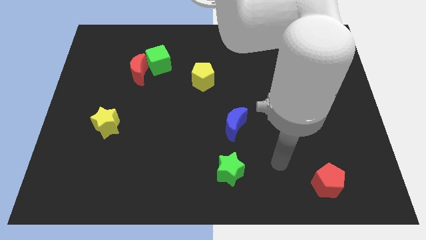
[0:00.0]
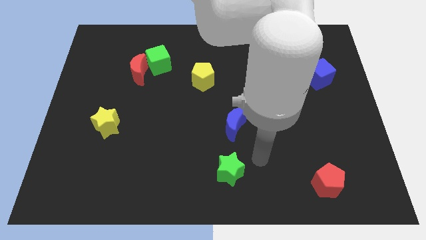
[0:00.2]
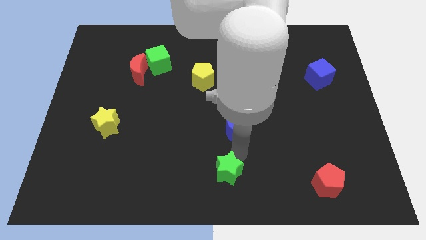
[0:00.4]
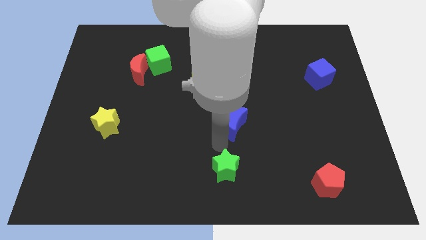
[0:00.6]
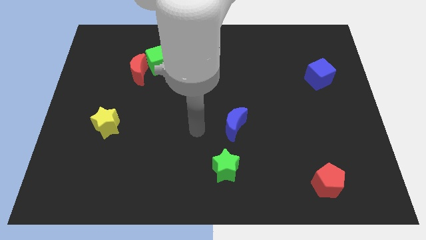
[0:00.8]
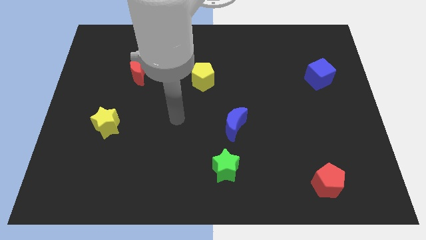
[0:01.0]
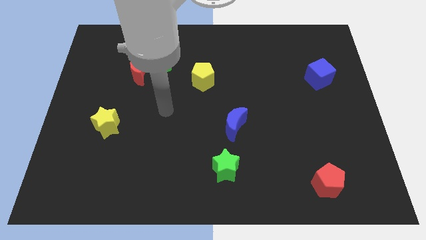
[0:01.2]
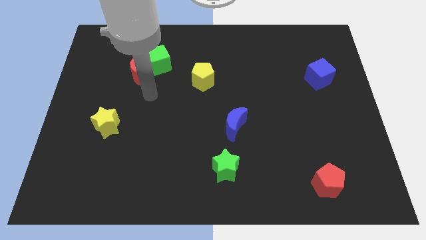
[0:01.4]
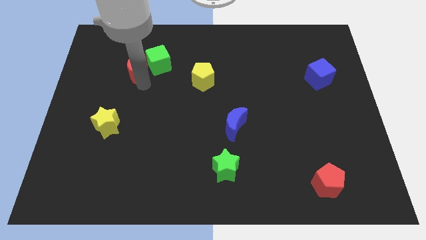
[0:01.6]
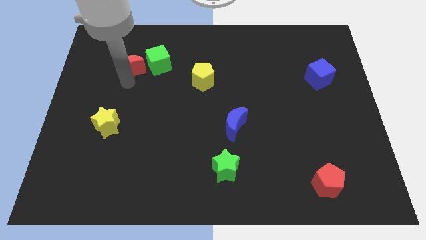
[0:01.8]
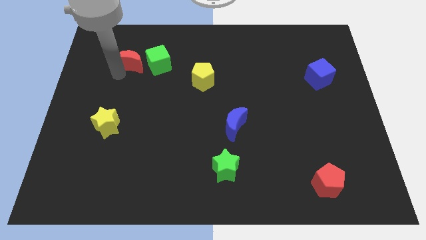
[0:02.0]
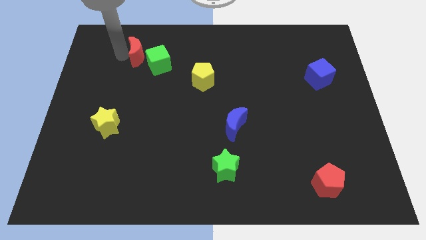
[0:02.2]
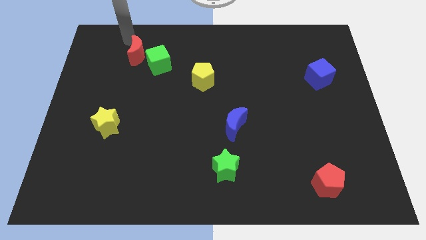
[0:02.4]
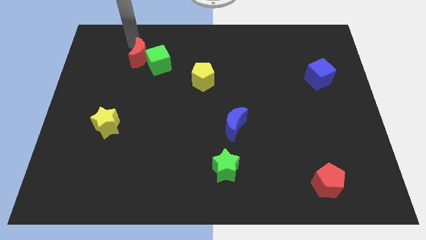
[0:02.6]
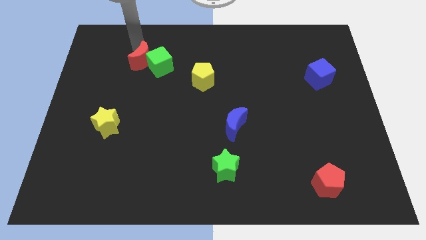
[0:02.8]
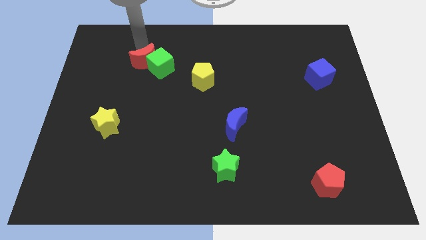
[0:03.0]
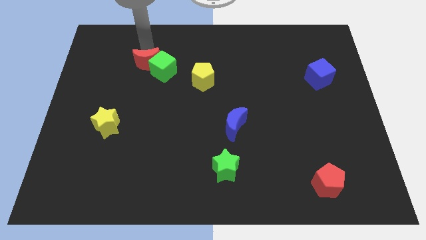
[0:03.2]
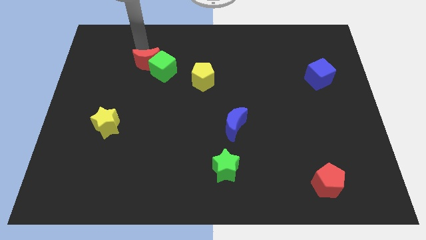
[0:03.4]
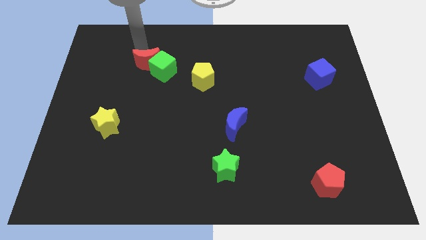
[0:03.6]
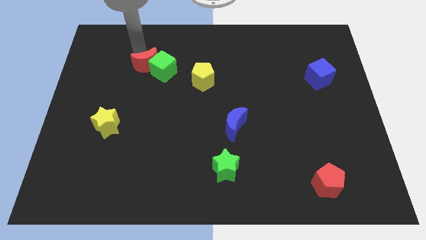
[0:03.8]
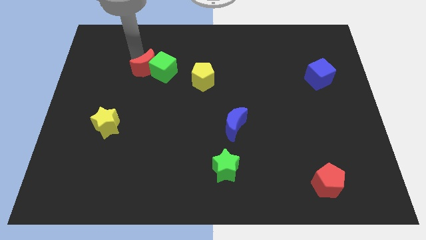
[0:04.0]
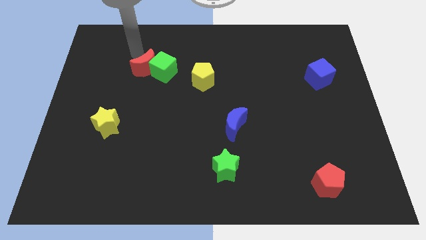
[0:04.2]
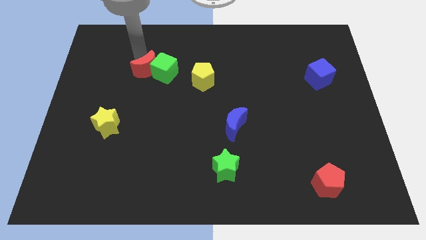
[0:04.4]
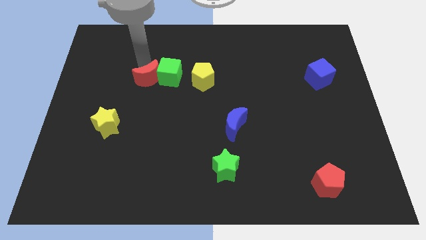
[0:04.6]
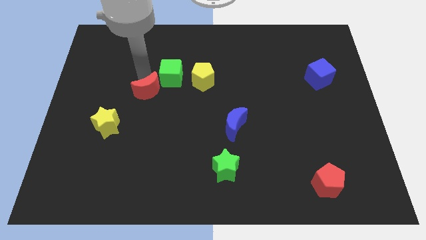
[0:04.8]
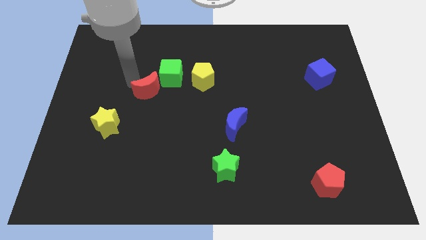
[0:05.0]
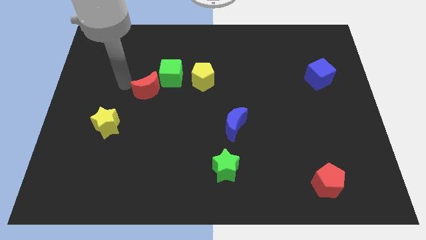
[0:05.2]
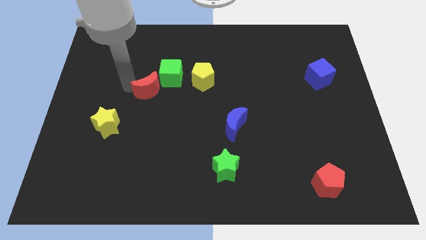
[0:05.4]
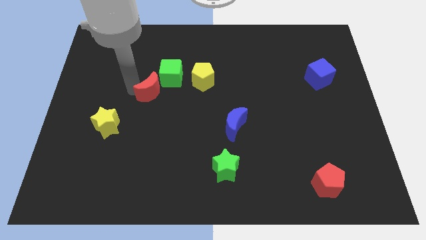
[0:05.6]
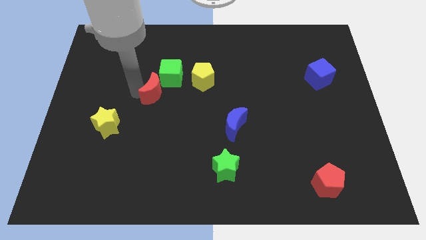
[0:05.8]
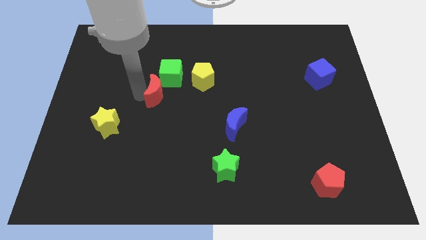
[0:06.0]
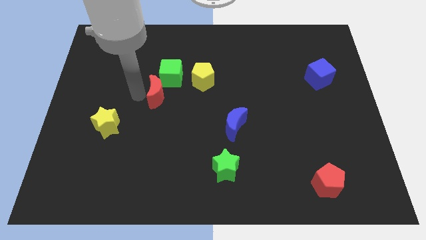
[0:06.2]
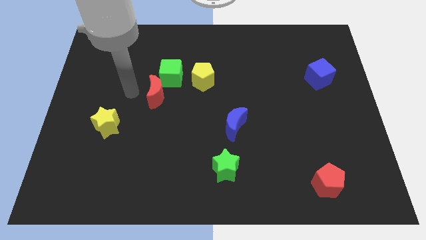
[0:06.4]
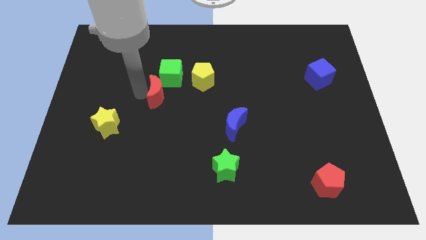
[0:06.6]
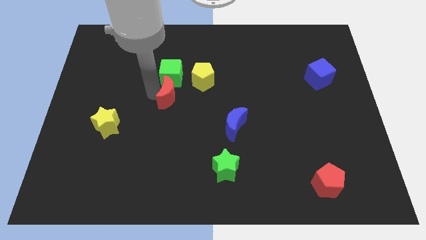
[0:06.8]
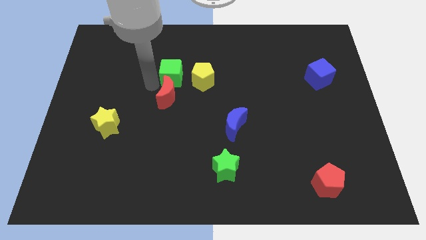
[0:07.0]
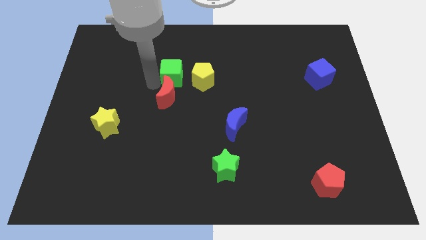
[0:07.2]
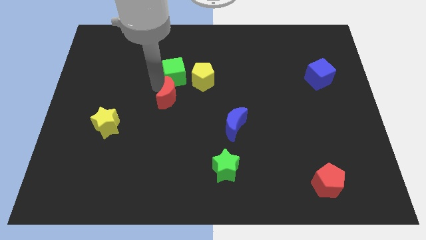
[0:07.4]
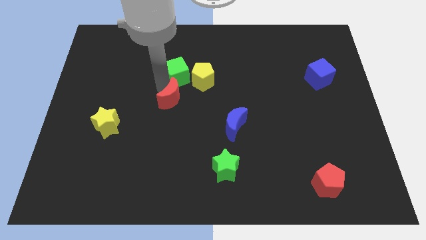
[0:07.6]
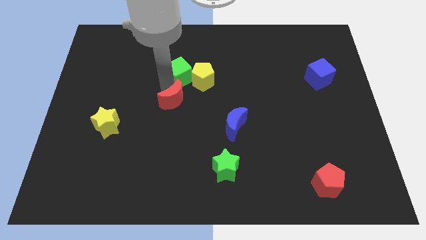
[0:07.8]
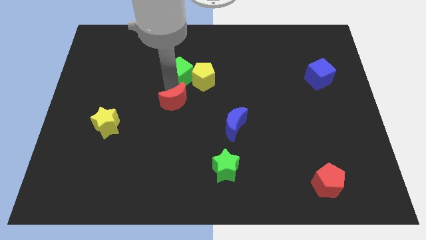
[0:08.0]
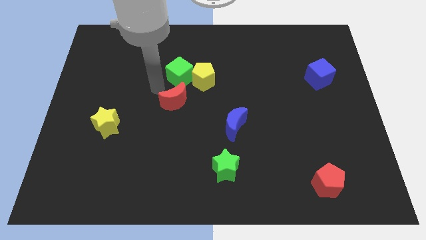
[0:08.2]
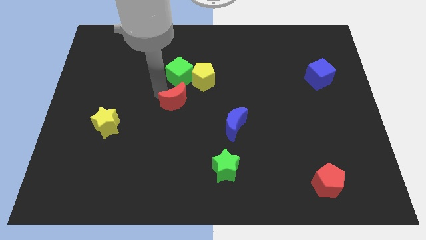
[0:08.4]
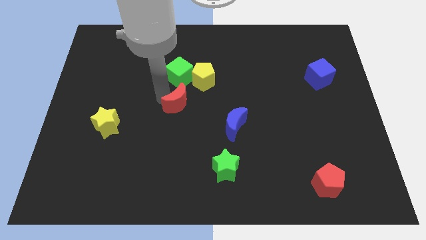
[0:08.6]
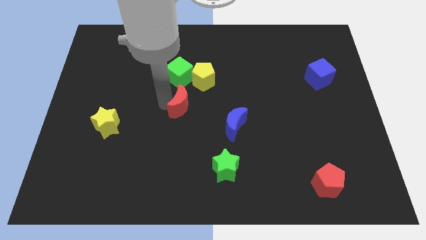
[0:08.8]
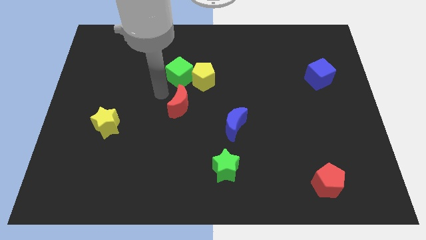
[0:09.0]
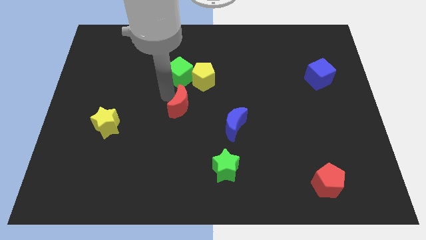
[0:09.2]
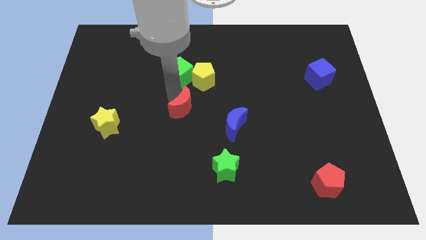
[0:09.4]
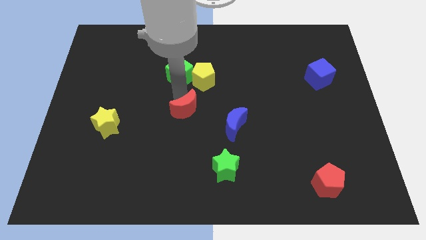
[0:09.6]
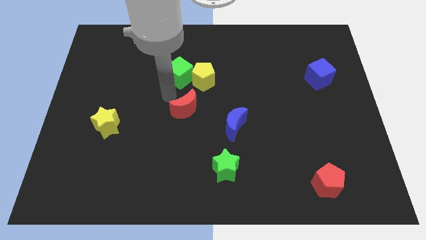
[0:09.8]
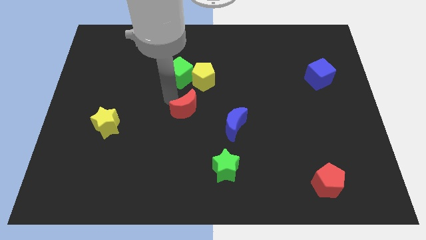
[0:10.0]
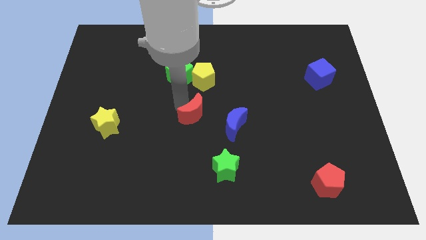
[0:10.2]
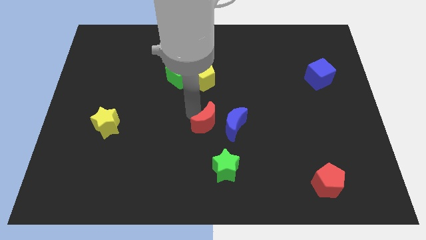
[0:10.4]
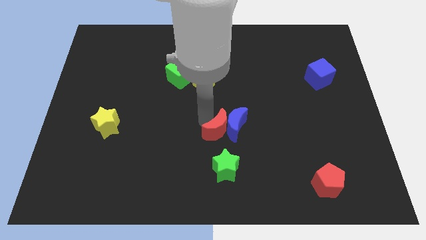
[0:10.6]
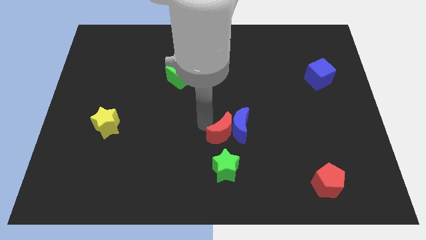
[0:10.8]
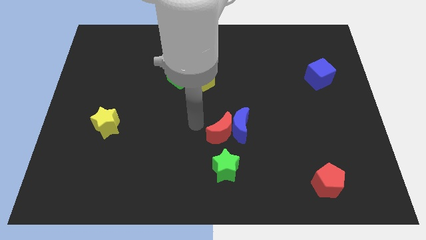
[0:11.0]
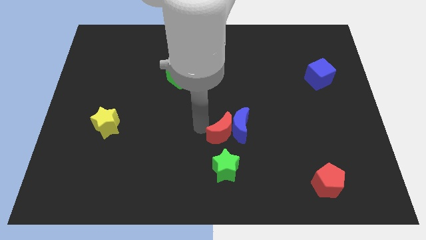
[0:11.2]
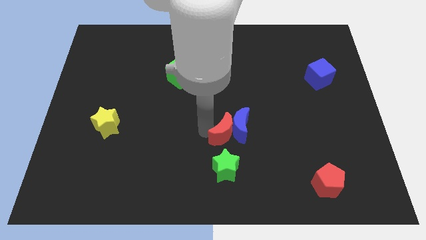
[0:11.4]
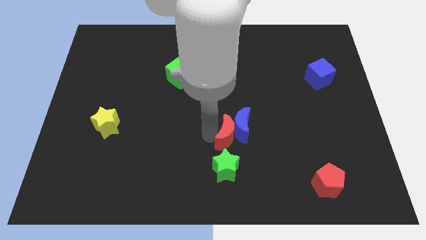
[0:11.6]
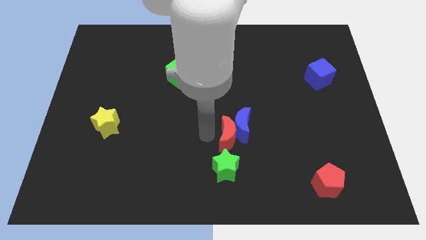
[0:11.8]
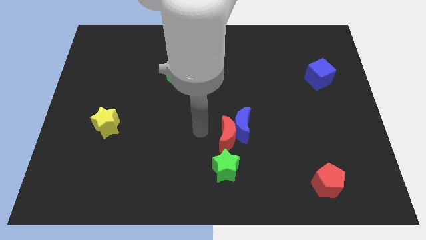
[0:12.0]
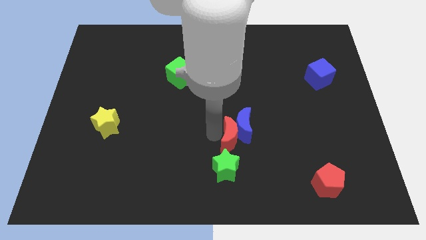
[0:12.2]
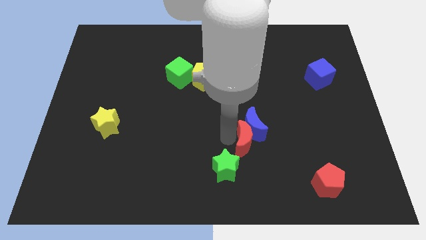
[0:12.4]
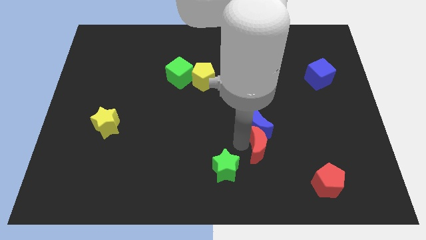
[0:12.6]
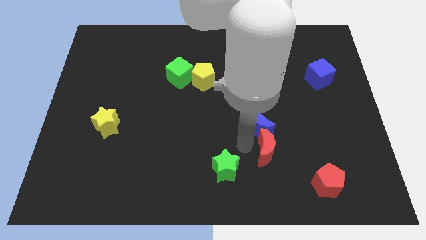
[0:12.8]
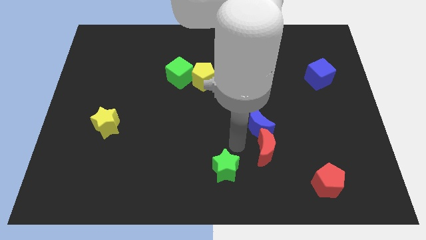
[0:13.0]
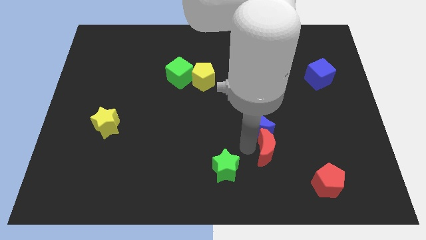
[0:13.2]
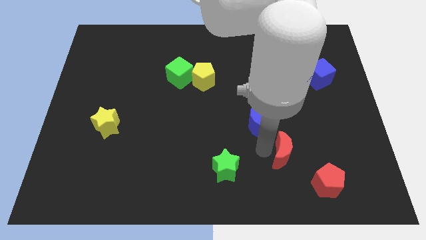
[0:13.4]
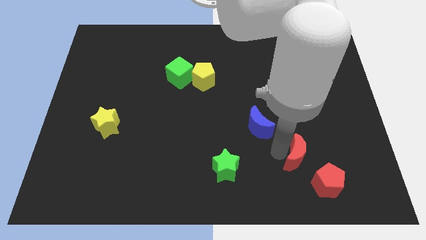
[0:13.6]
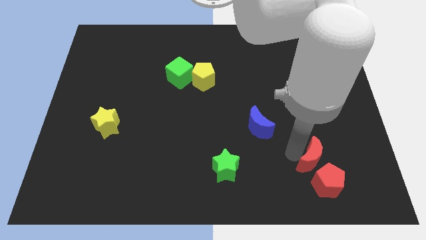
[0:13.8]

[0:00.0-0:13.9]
put the red moon next to the red pentagon

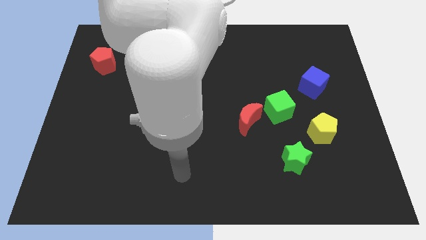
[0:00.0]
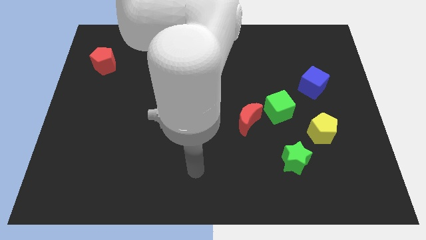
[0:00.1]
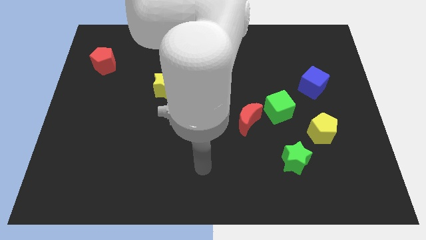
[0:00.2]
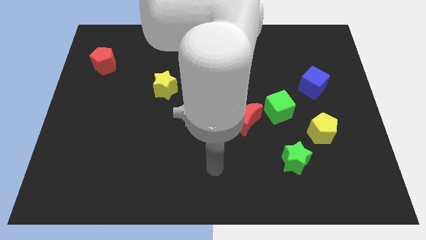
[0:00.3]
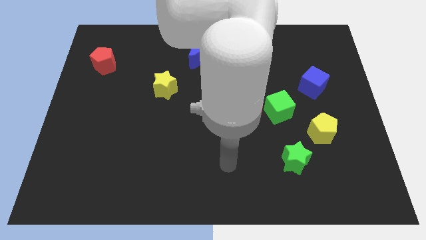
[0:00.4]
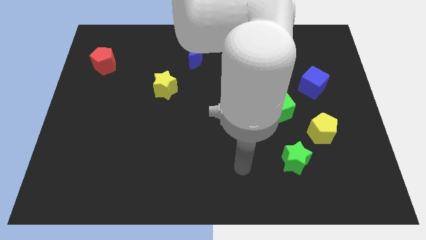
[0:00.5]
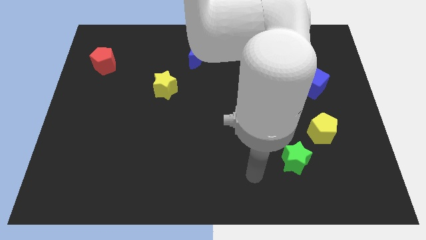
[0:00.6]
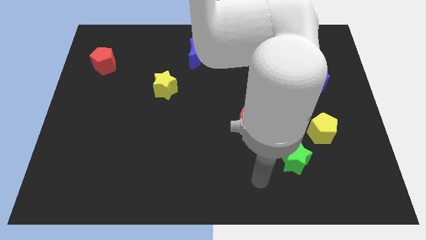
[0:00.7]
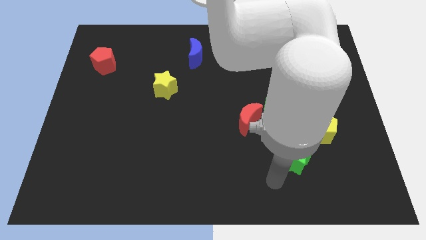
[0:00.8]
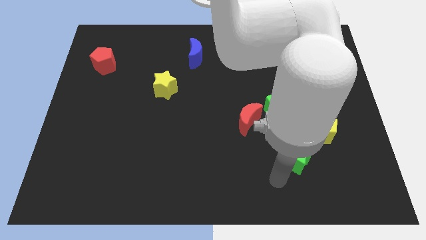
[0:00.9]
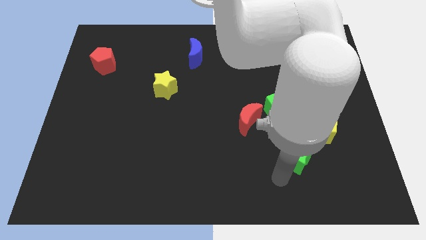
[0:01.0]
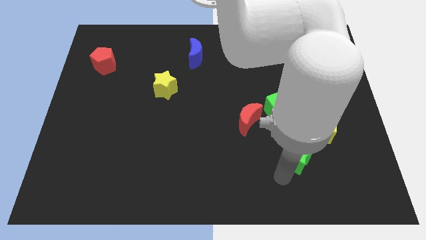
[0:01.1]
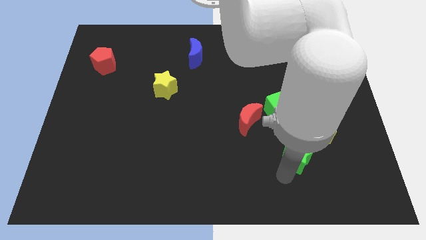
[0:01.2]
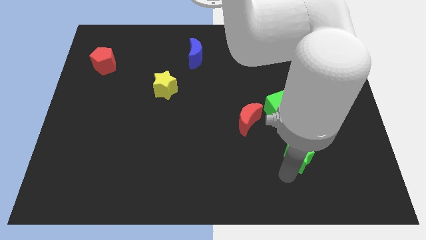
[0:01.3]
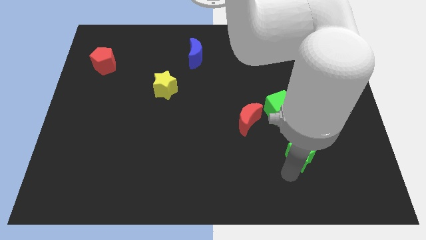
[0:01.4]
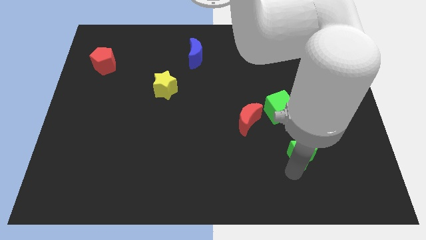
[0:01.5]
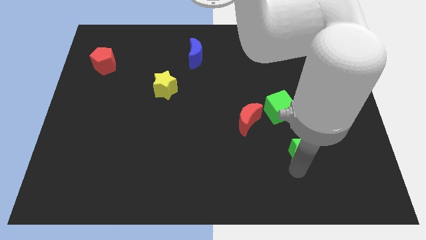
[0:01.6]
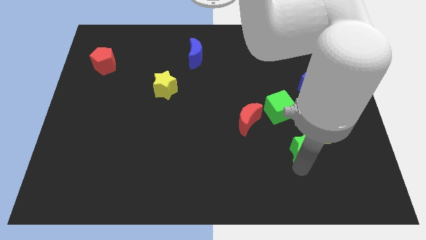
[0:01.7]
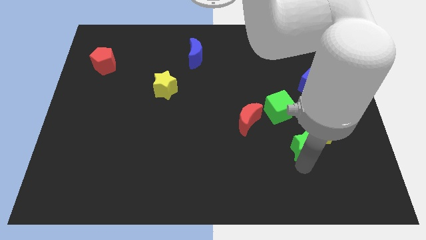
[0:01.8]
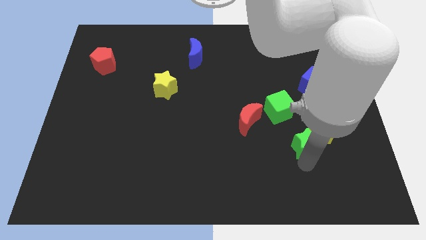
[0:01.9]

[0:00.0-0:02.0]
push the green star to the yellow pentagon
